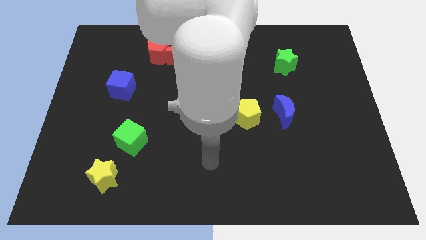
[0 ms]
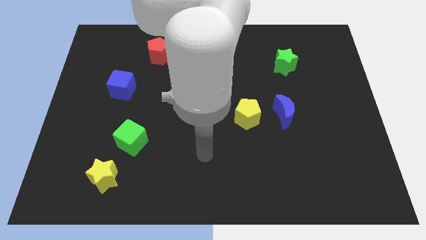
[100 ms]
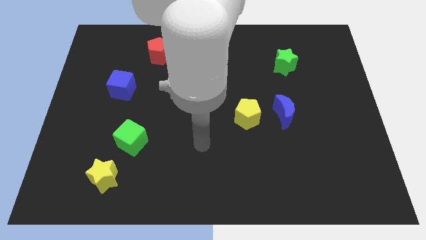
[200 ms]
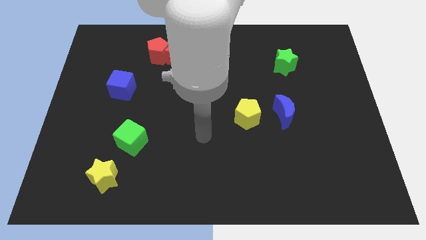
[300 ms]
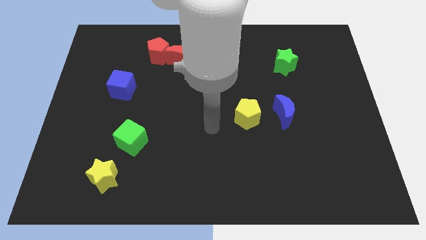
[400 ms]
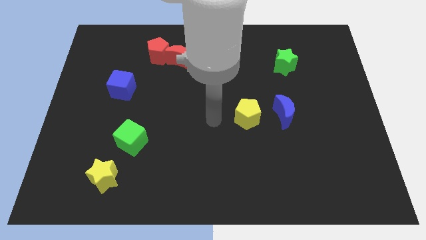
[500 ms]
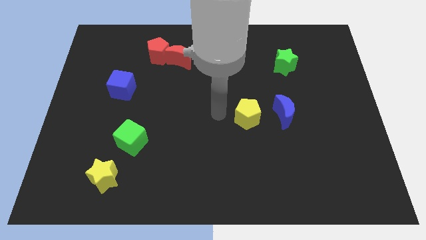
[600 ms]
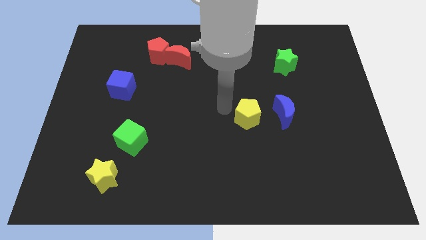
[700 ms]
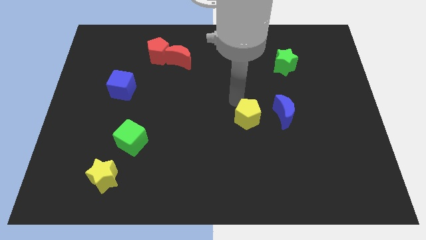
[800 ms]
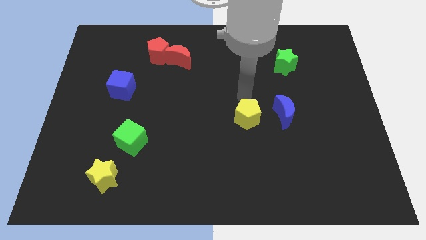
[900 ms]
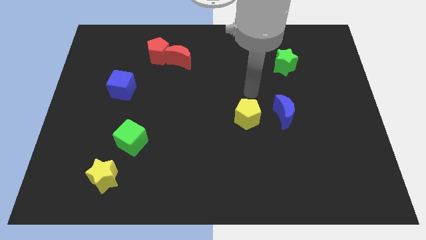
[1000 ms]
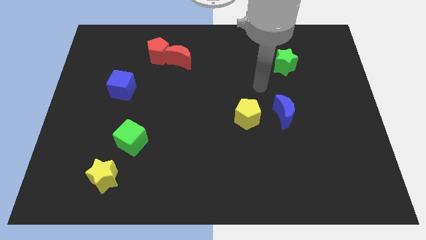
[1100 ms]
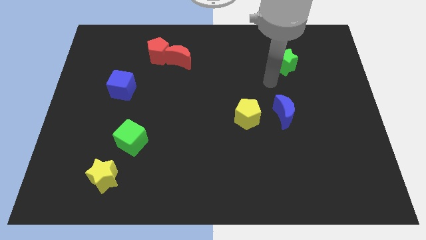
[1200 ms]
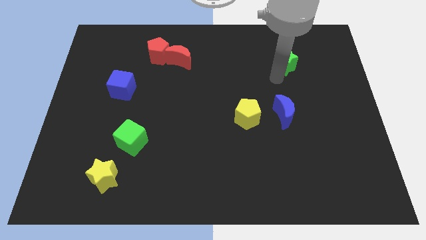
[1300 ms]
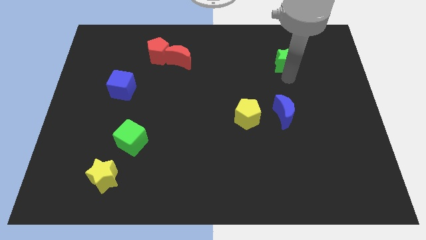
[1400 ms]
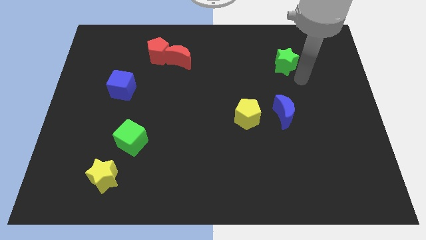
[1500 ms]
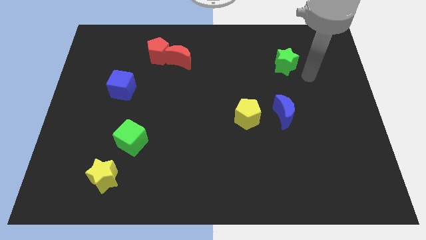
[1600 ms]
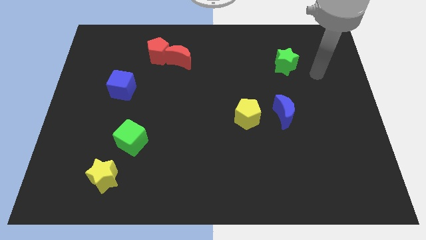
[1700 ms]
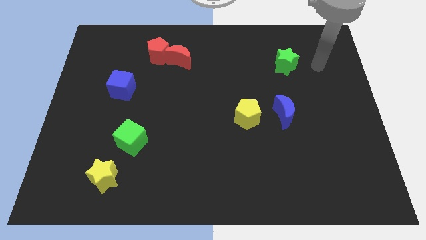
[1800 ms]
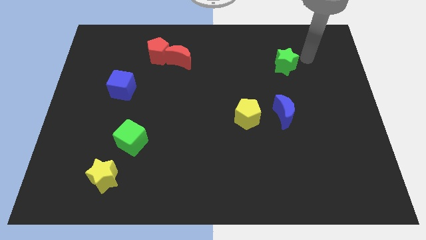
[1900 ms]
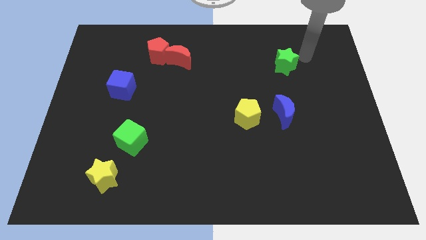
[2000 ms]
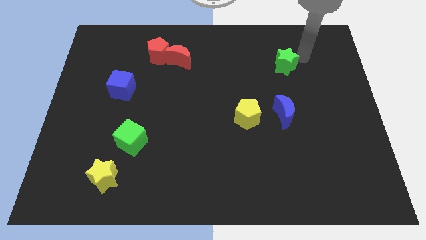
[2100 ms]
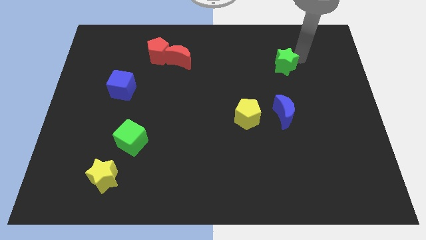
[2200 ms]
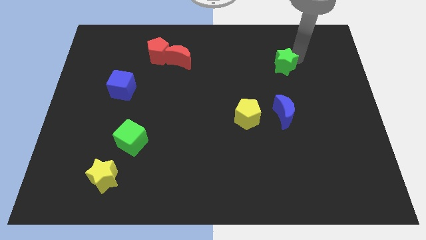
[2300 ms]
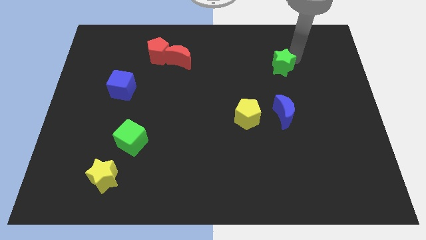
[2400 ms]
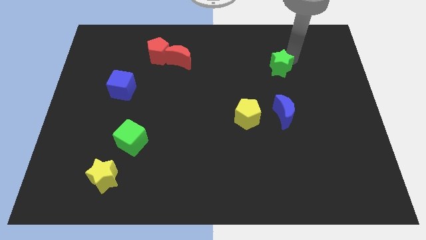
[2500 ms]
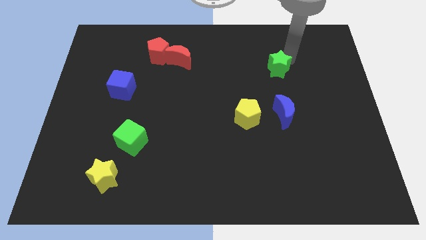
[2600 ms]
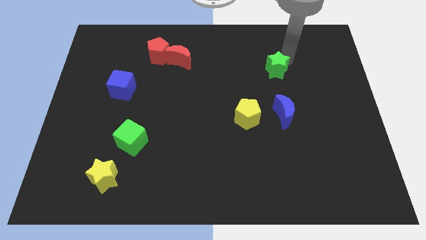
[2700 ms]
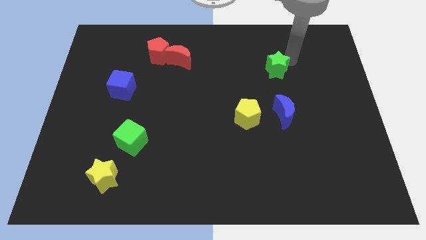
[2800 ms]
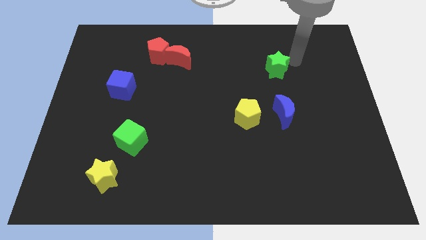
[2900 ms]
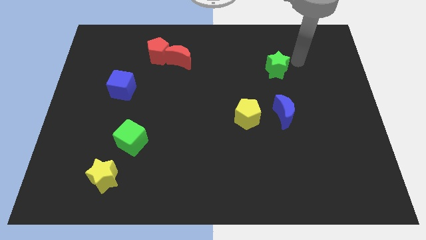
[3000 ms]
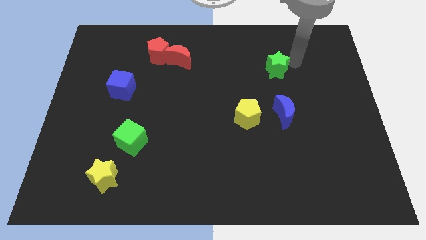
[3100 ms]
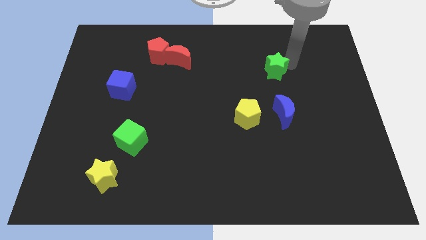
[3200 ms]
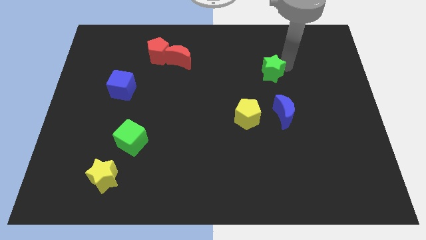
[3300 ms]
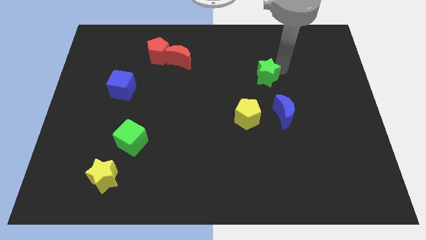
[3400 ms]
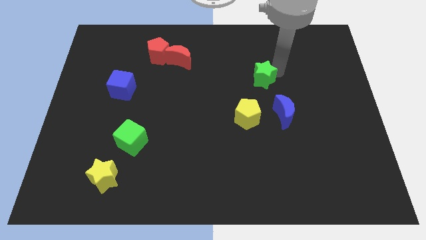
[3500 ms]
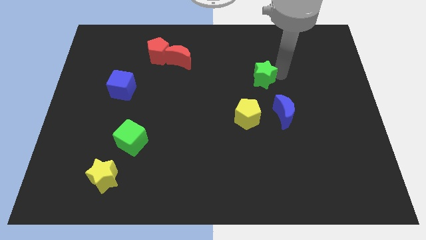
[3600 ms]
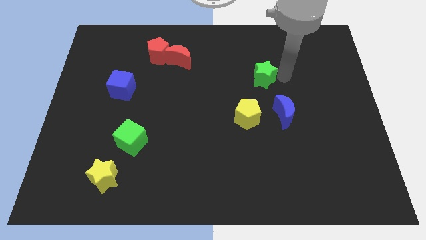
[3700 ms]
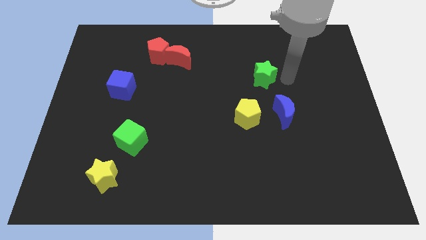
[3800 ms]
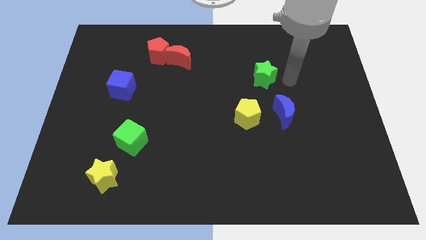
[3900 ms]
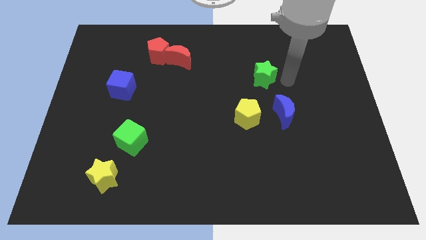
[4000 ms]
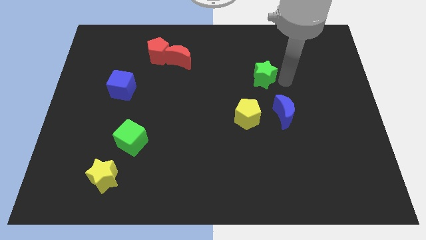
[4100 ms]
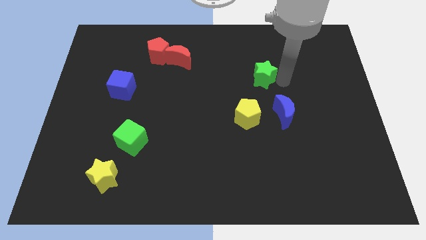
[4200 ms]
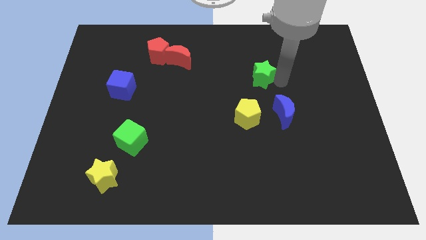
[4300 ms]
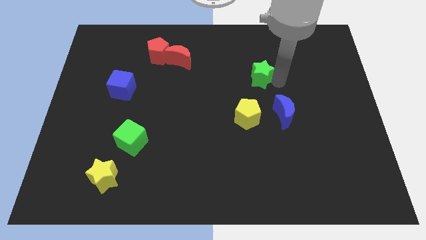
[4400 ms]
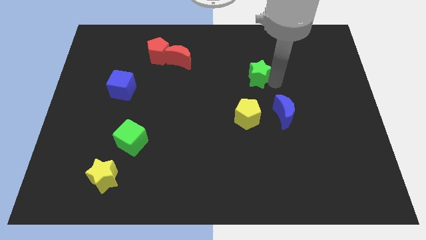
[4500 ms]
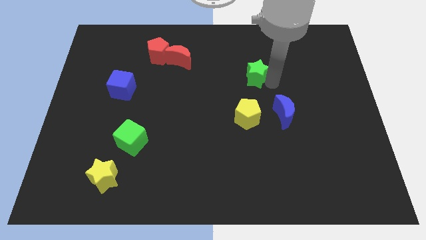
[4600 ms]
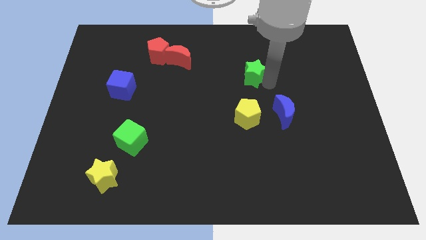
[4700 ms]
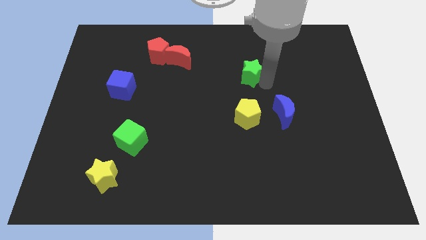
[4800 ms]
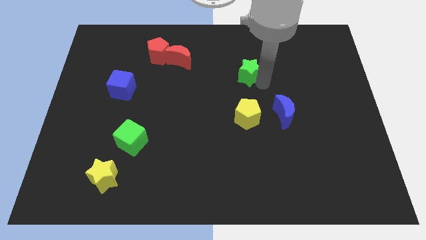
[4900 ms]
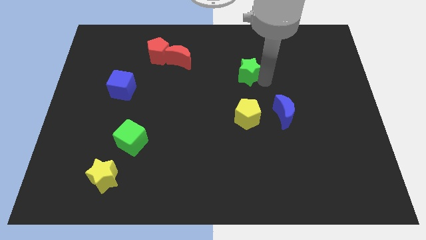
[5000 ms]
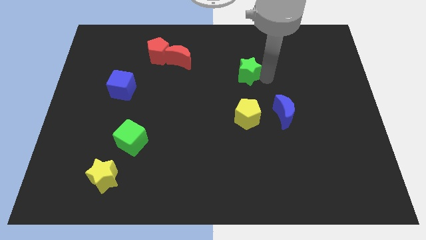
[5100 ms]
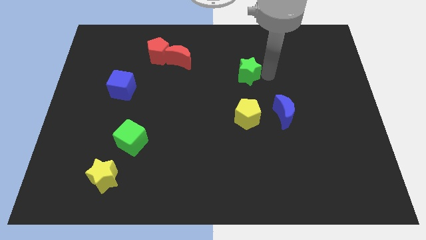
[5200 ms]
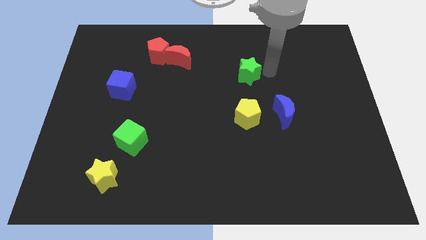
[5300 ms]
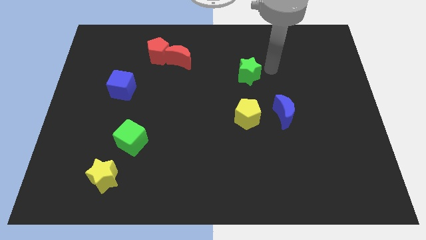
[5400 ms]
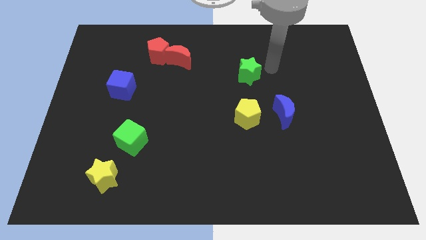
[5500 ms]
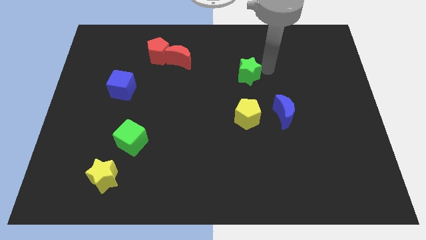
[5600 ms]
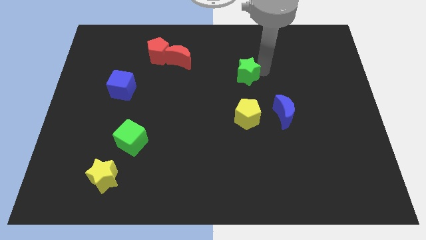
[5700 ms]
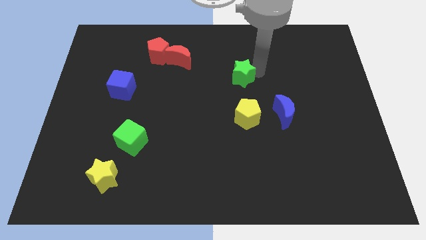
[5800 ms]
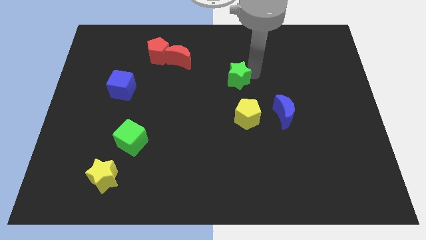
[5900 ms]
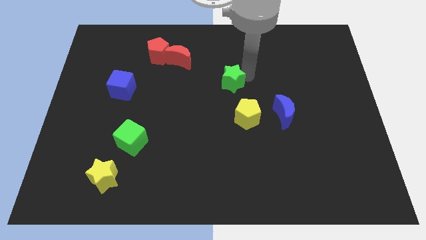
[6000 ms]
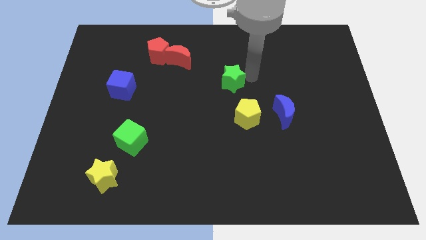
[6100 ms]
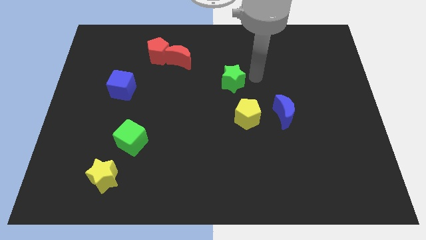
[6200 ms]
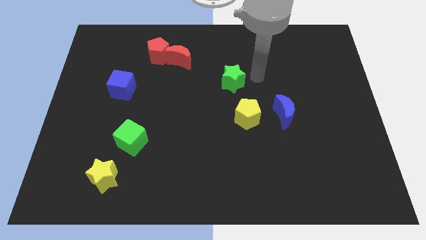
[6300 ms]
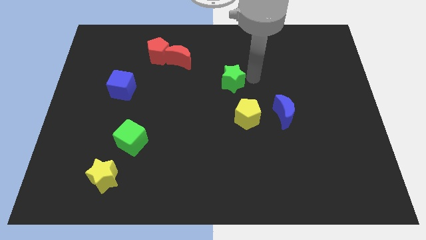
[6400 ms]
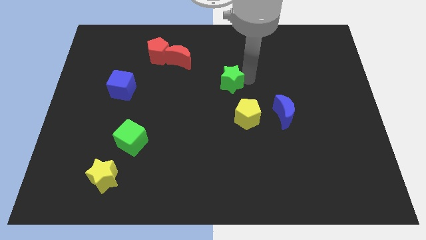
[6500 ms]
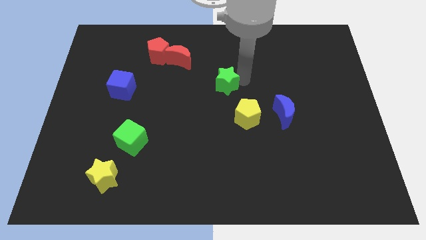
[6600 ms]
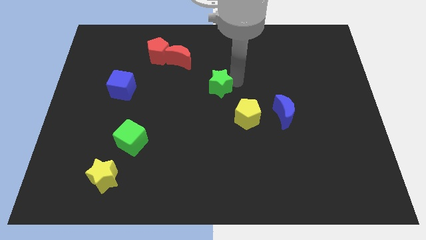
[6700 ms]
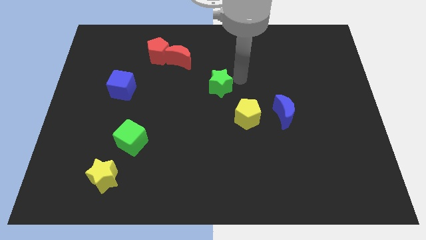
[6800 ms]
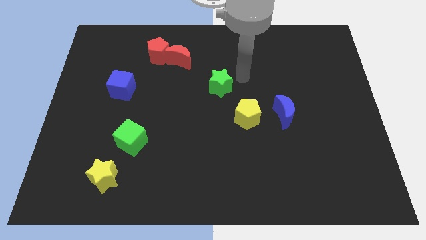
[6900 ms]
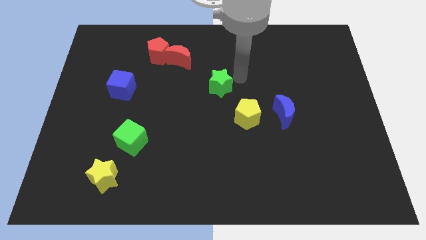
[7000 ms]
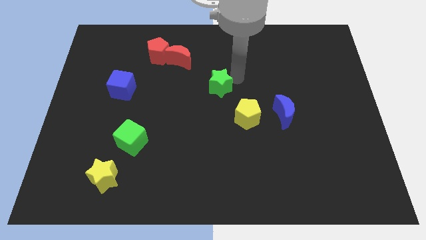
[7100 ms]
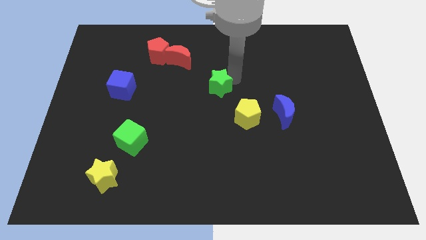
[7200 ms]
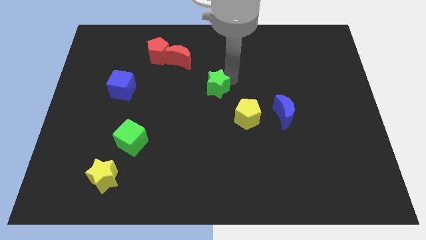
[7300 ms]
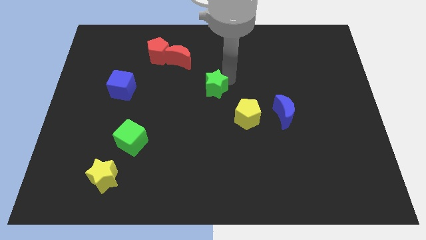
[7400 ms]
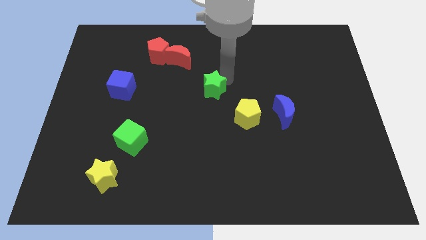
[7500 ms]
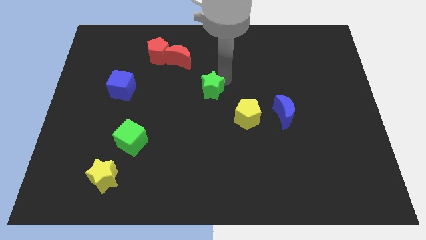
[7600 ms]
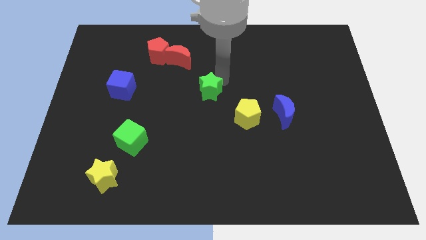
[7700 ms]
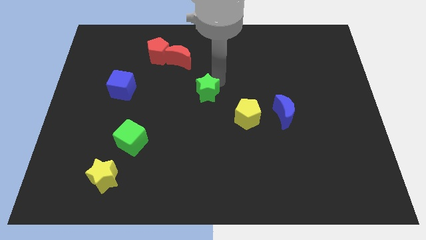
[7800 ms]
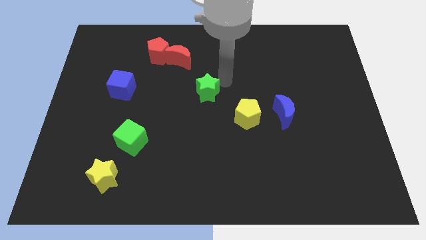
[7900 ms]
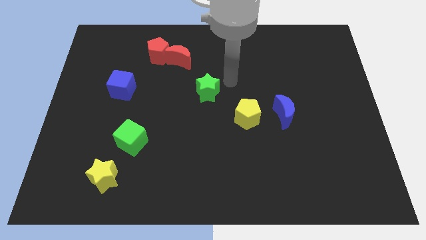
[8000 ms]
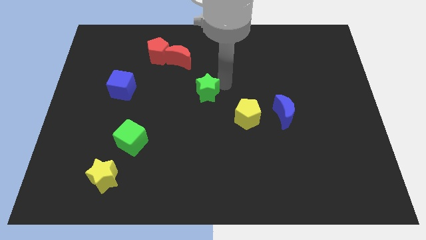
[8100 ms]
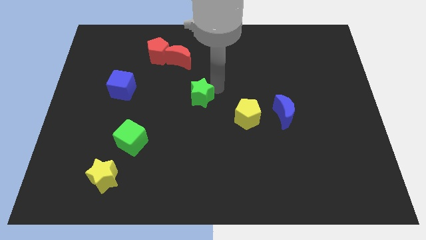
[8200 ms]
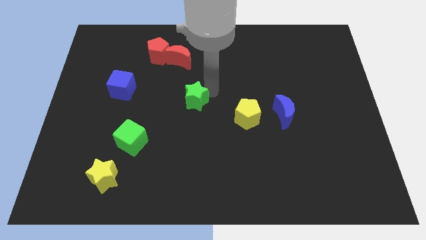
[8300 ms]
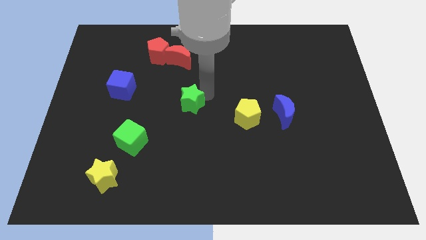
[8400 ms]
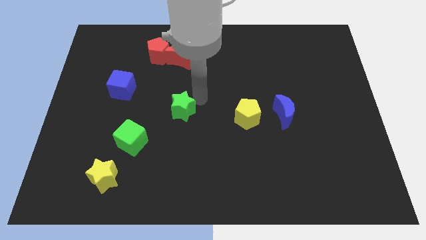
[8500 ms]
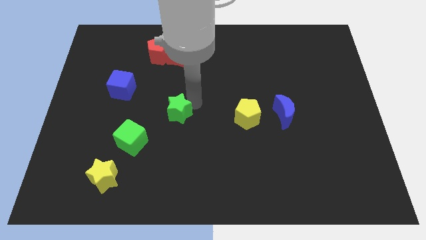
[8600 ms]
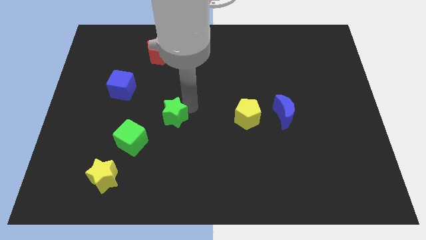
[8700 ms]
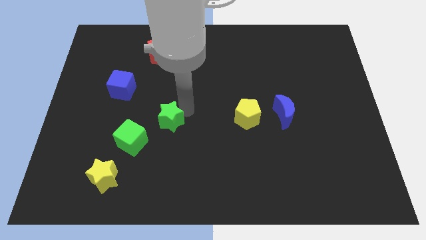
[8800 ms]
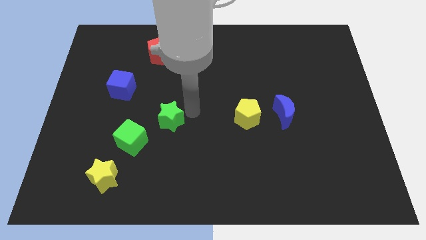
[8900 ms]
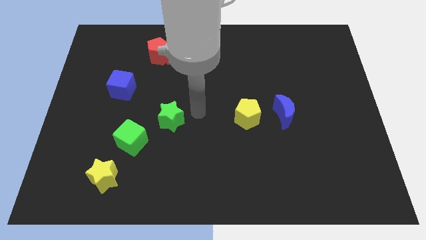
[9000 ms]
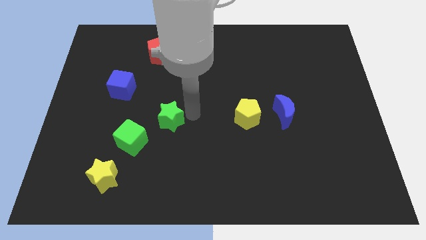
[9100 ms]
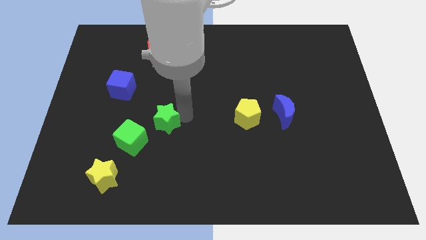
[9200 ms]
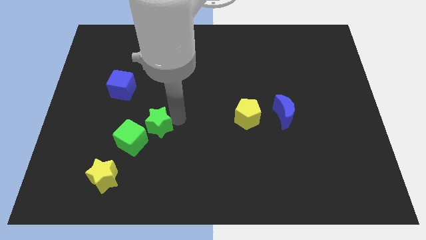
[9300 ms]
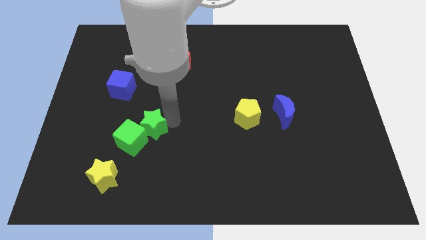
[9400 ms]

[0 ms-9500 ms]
move the green star to the green cube
